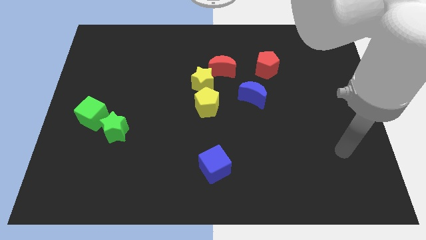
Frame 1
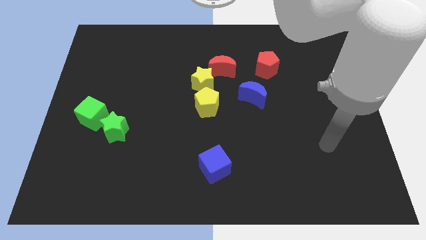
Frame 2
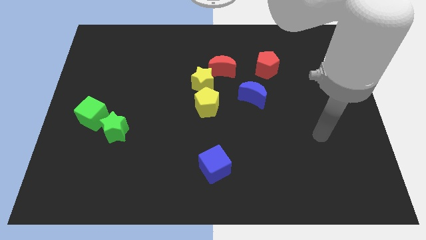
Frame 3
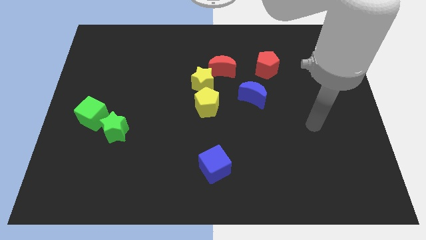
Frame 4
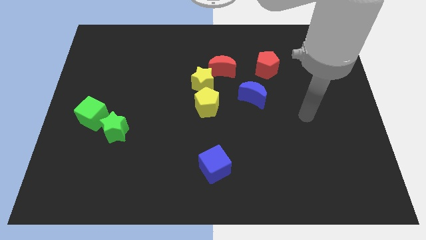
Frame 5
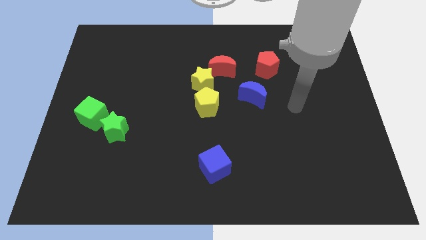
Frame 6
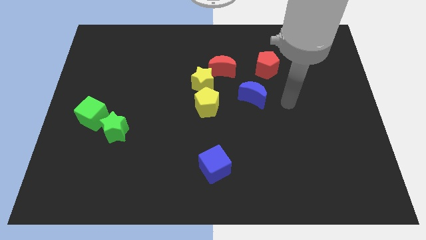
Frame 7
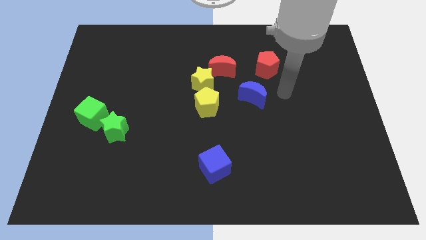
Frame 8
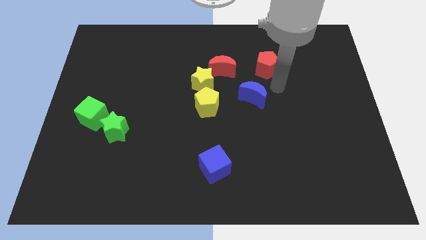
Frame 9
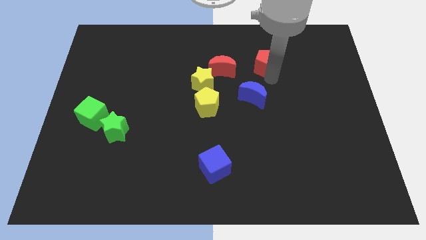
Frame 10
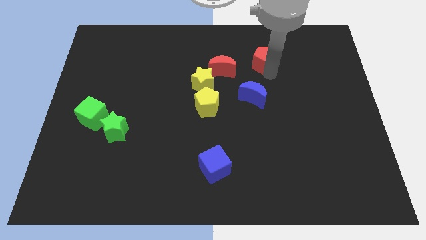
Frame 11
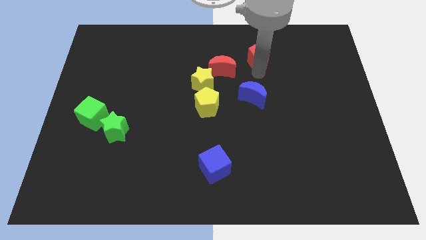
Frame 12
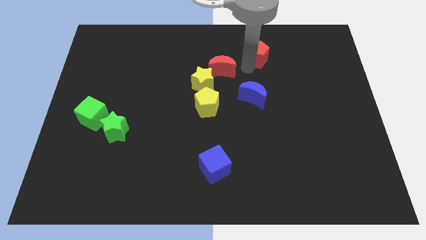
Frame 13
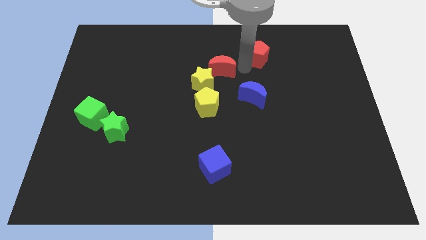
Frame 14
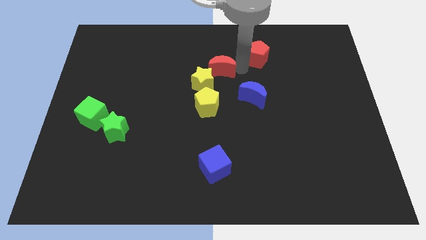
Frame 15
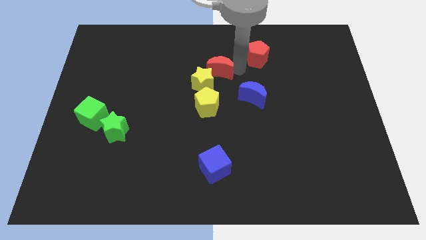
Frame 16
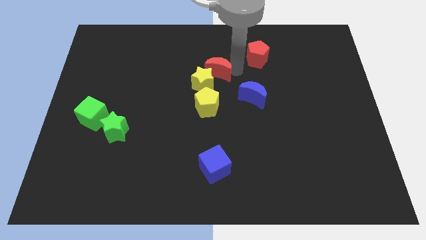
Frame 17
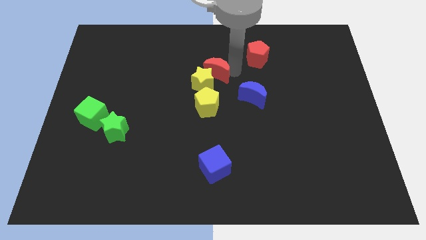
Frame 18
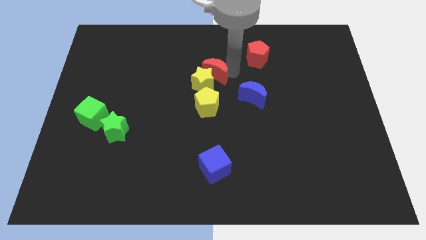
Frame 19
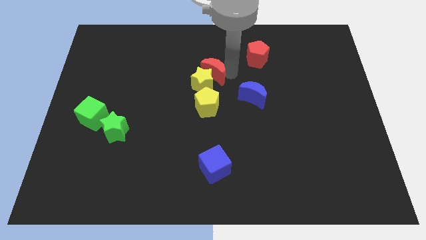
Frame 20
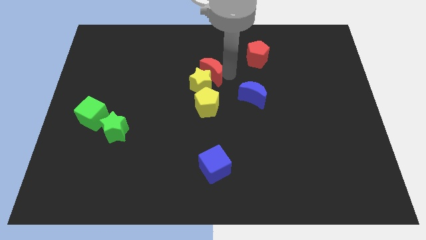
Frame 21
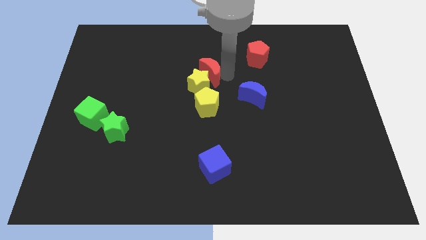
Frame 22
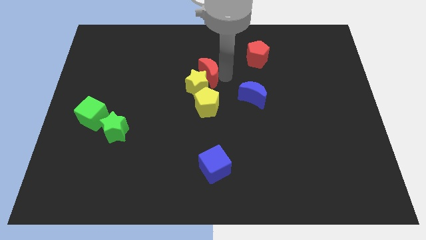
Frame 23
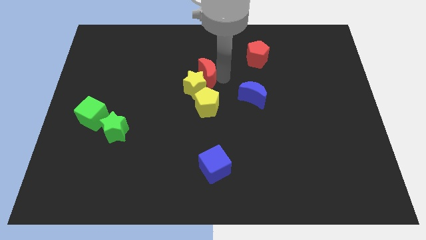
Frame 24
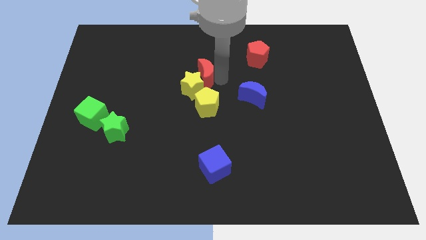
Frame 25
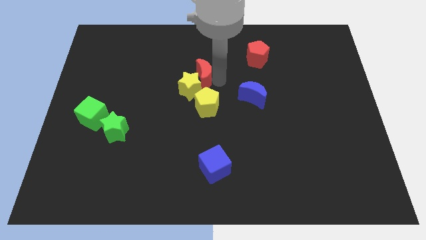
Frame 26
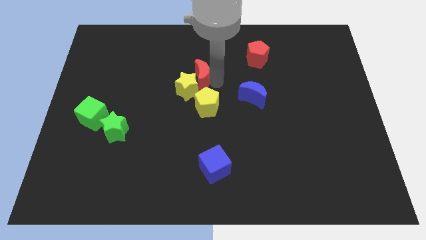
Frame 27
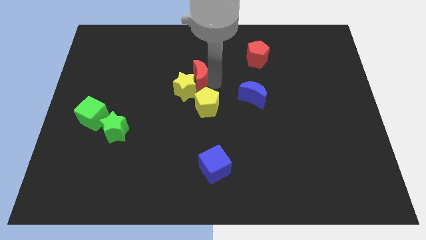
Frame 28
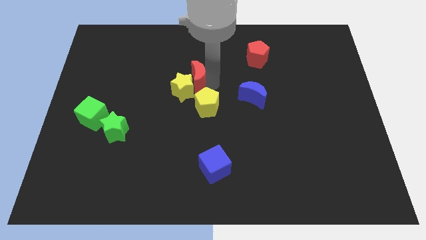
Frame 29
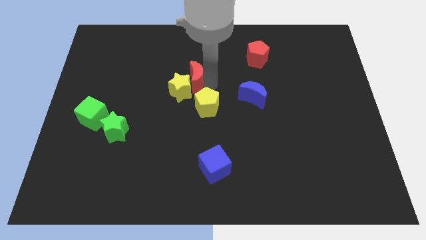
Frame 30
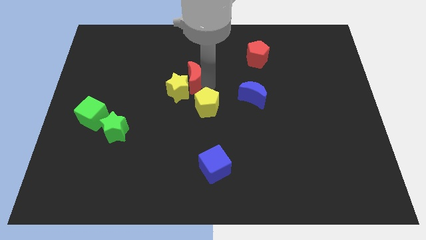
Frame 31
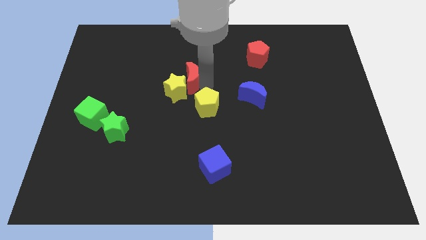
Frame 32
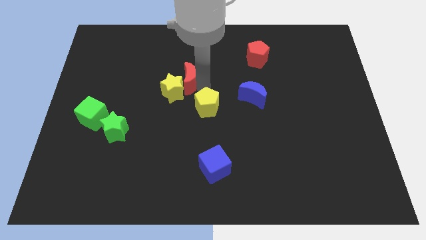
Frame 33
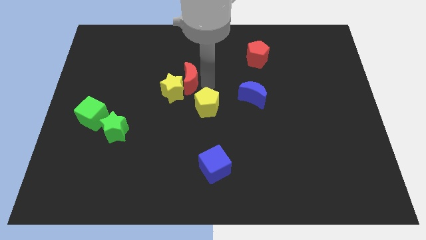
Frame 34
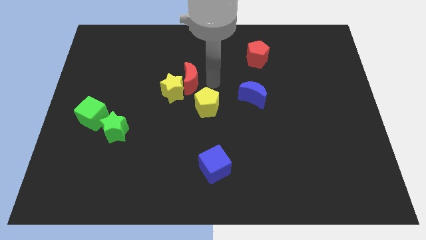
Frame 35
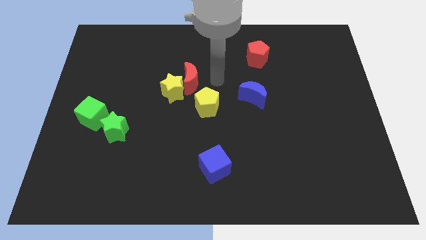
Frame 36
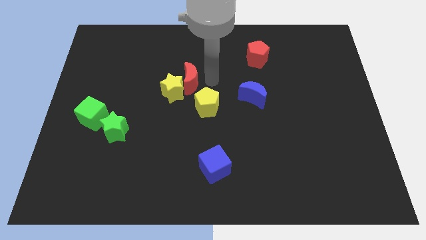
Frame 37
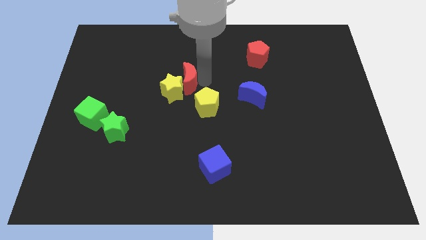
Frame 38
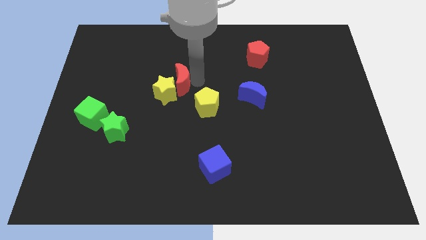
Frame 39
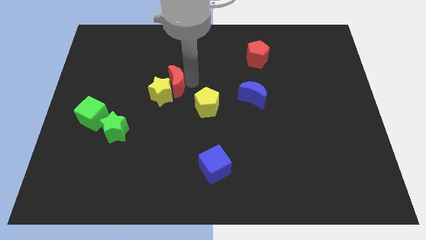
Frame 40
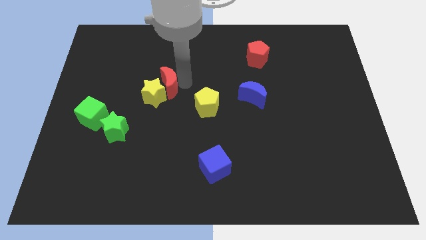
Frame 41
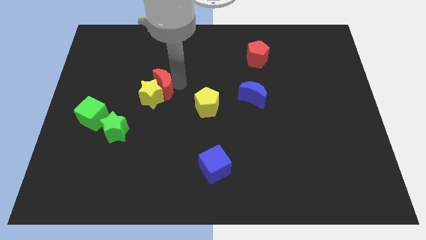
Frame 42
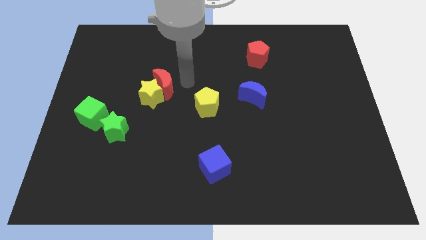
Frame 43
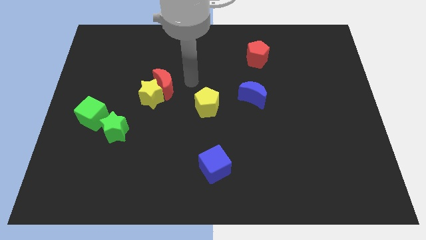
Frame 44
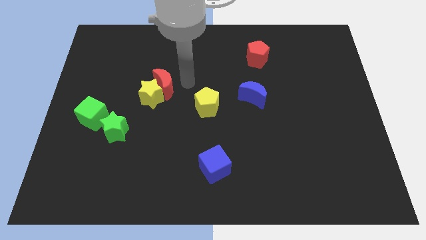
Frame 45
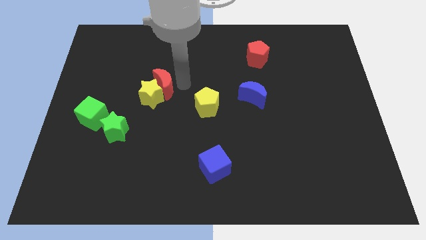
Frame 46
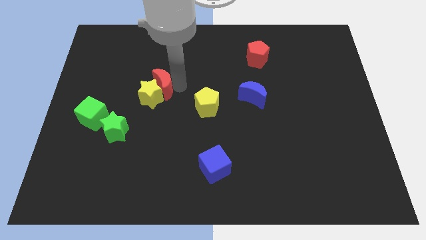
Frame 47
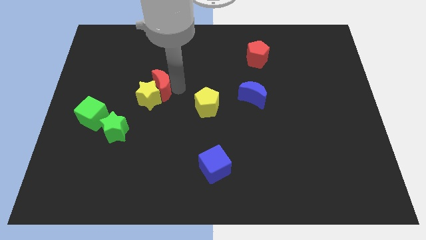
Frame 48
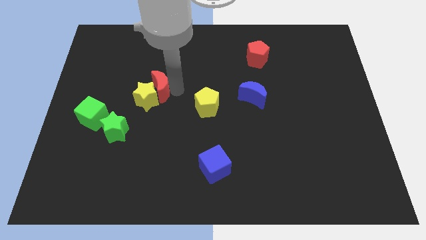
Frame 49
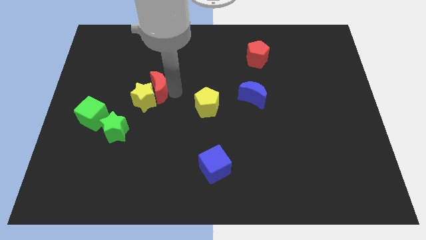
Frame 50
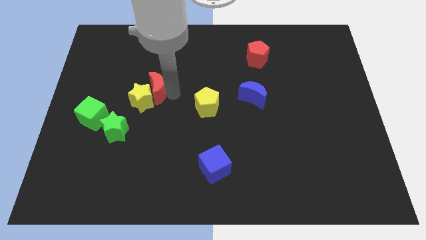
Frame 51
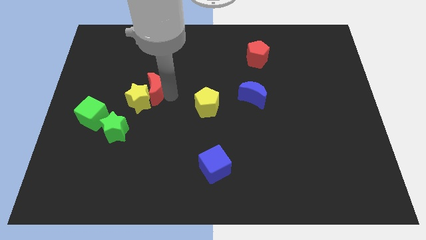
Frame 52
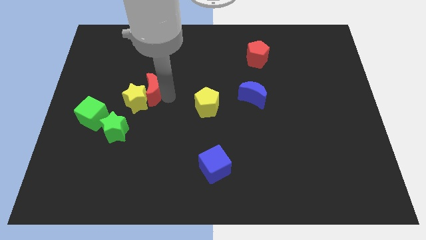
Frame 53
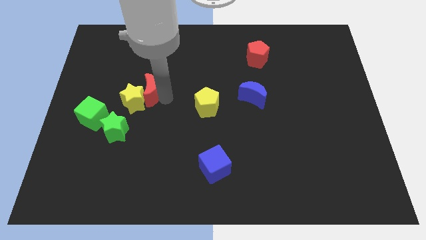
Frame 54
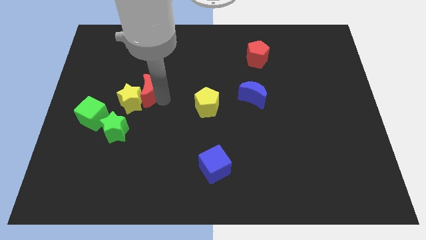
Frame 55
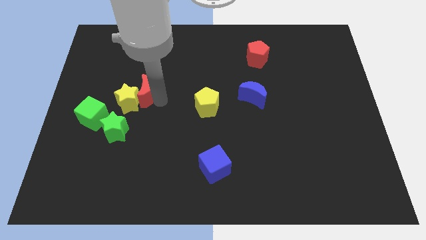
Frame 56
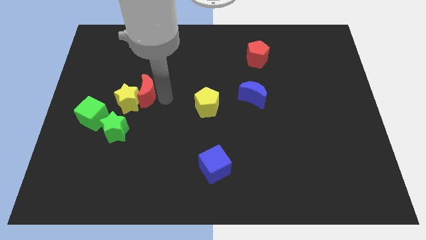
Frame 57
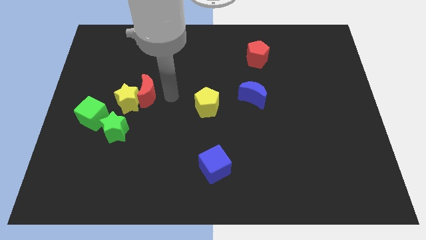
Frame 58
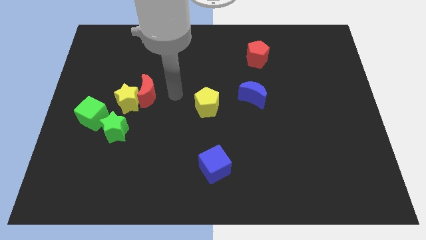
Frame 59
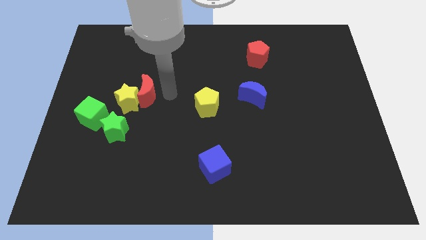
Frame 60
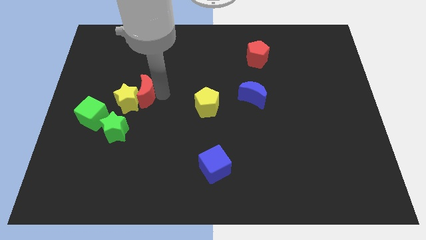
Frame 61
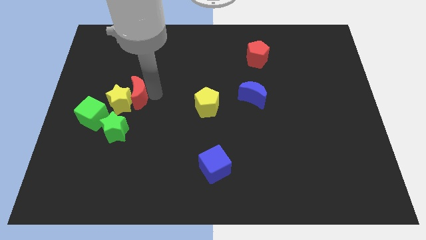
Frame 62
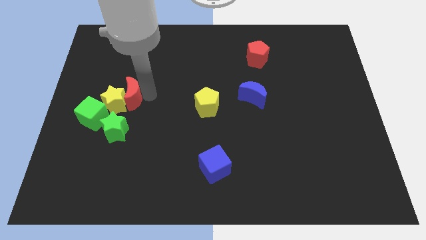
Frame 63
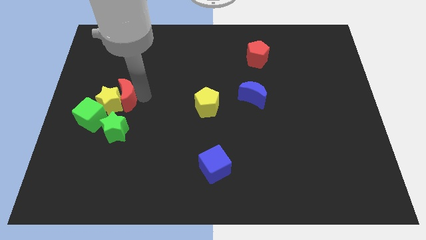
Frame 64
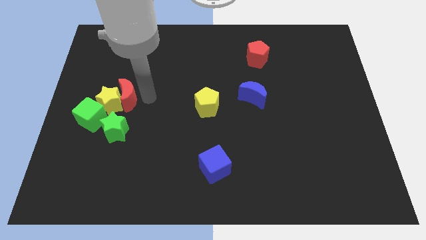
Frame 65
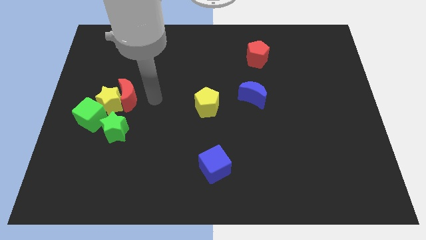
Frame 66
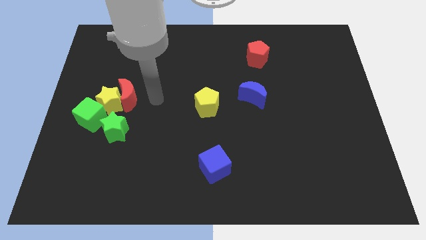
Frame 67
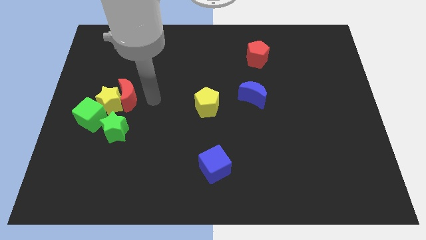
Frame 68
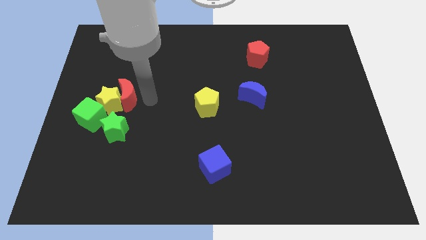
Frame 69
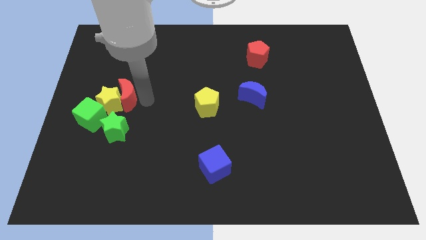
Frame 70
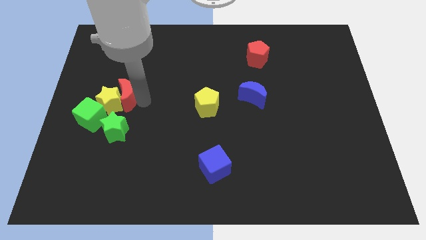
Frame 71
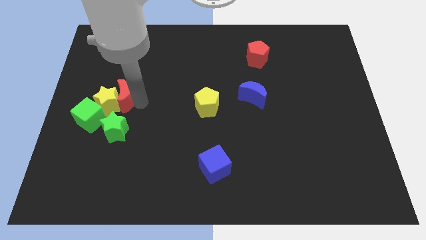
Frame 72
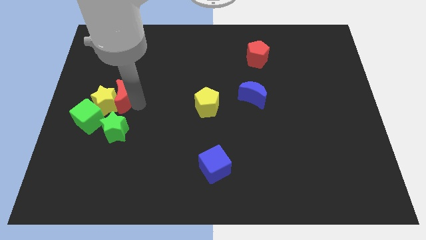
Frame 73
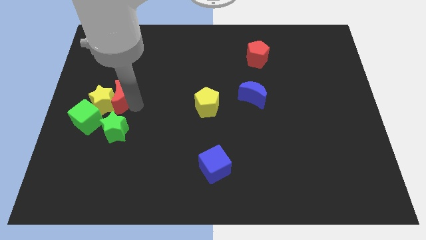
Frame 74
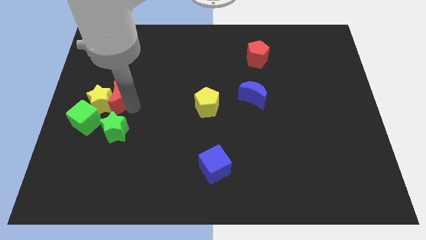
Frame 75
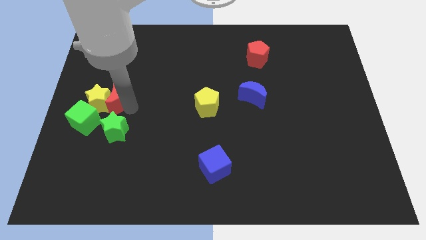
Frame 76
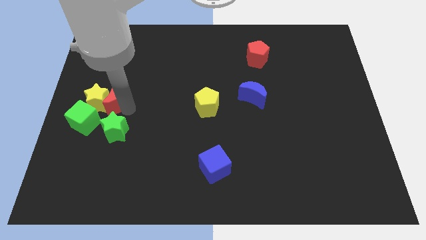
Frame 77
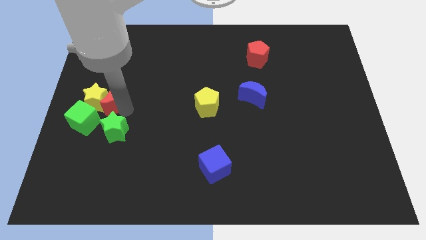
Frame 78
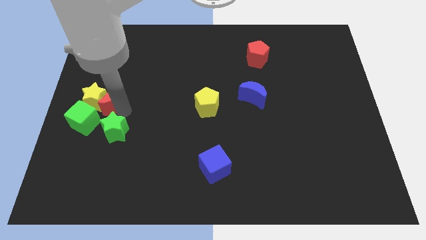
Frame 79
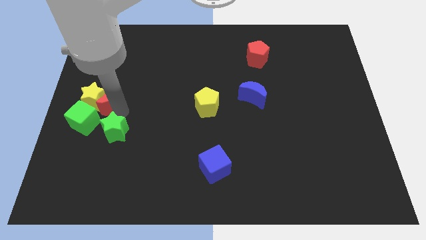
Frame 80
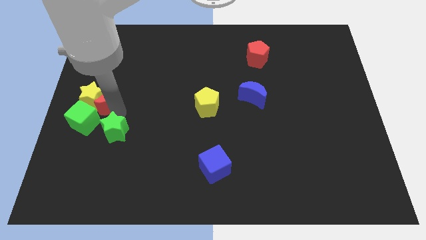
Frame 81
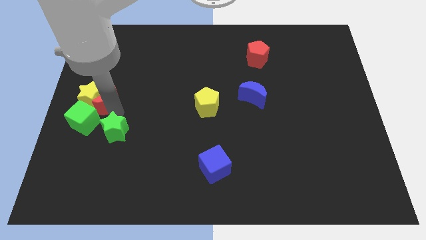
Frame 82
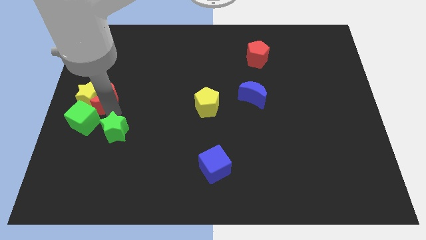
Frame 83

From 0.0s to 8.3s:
slide the red moon to the left side
